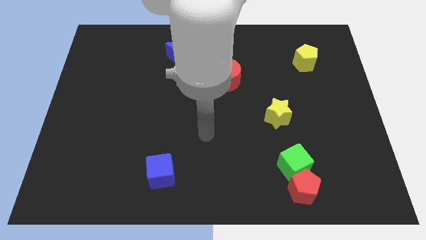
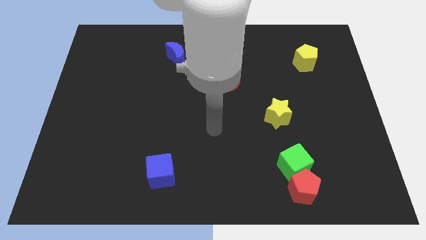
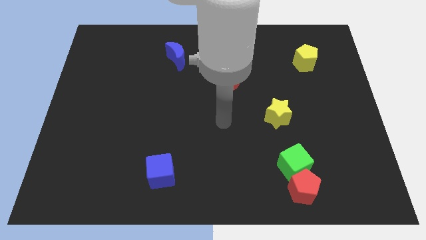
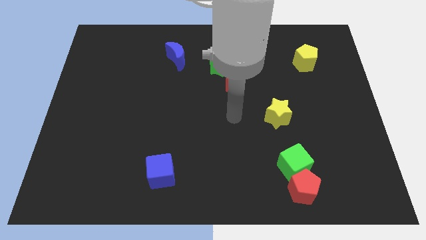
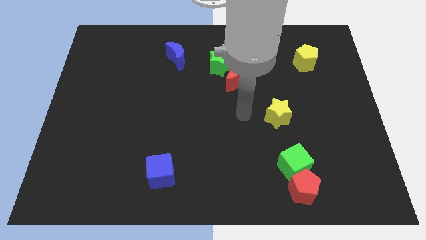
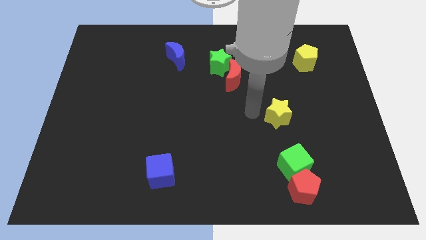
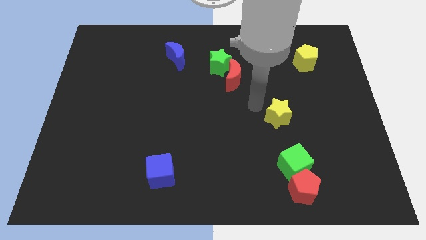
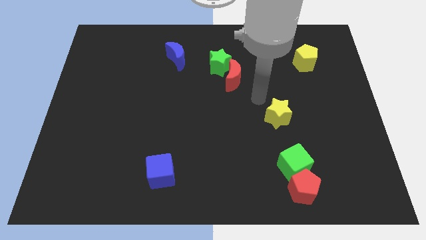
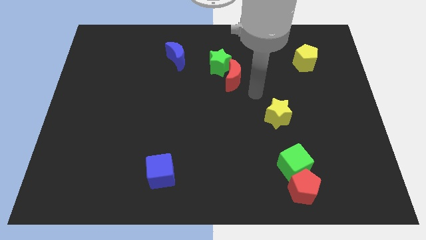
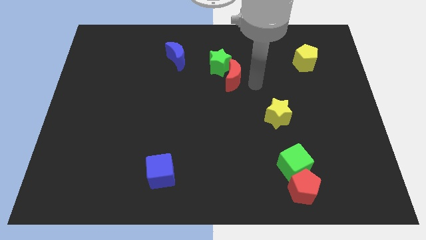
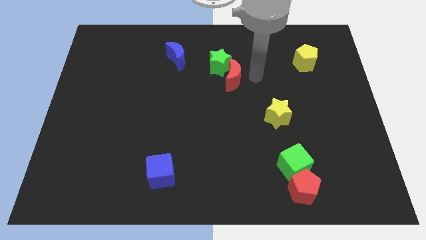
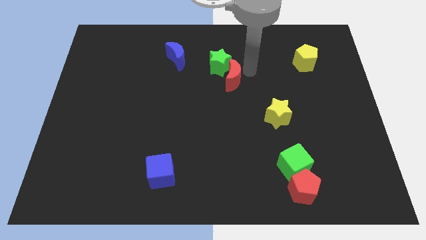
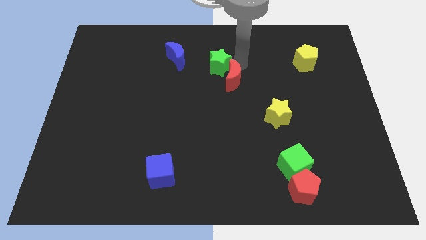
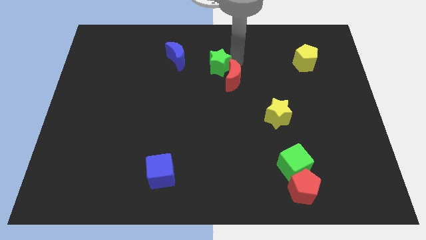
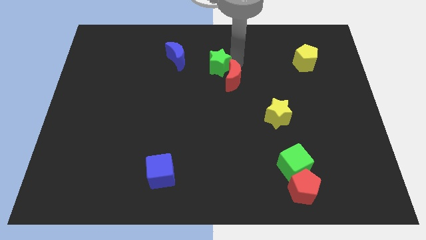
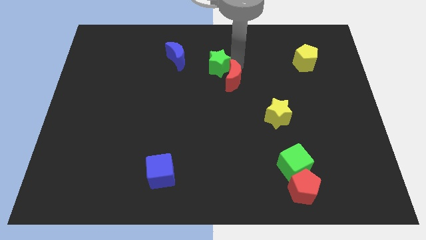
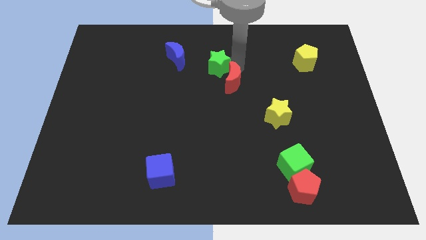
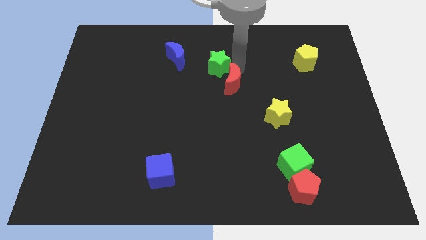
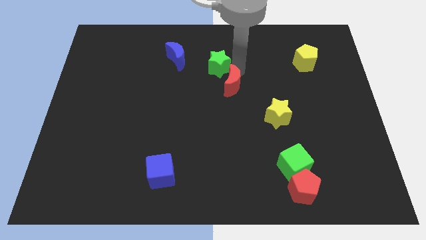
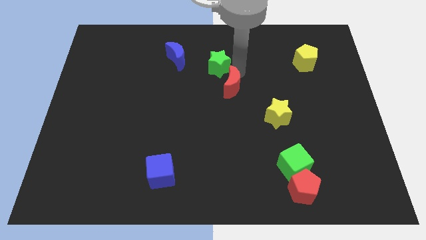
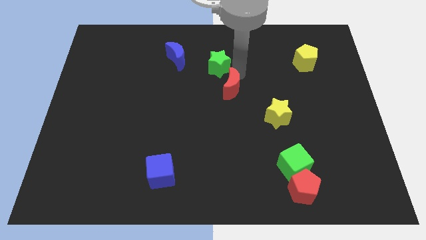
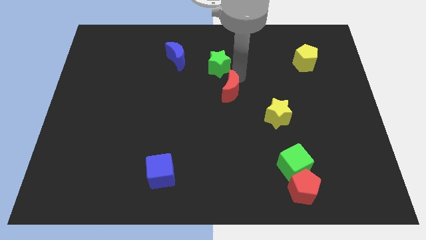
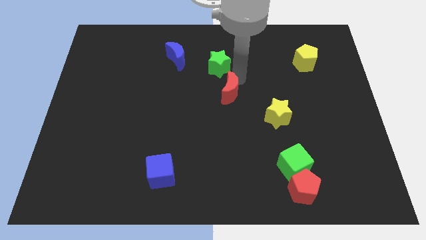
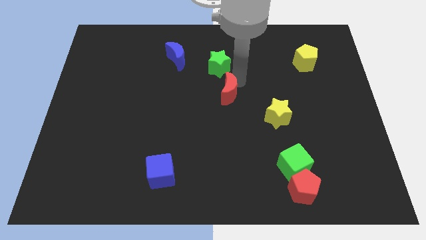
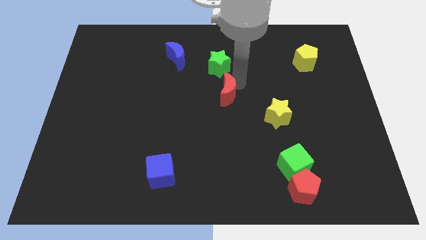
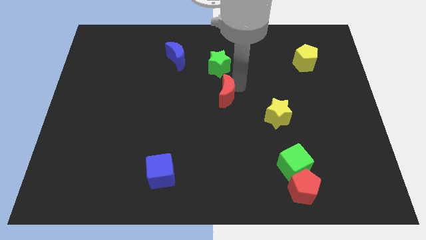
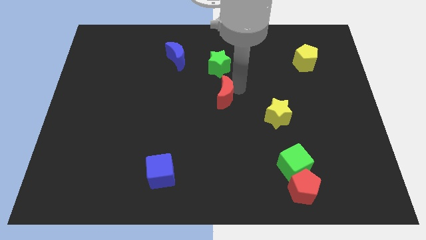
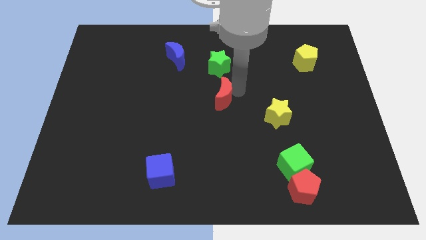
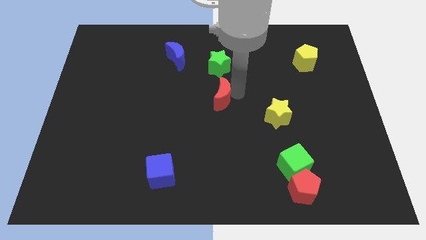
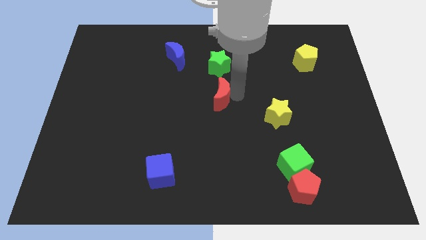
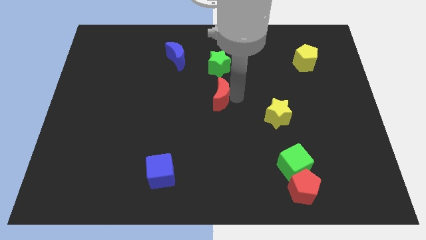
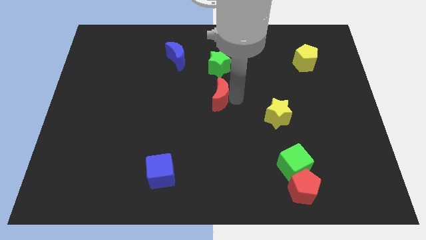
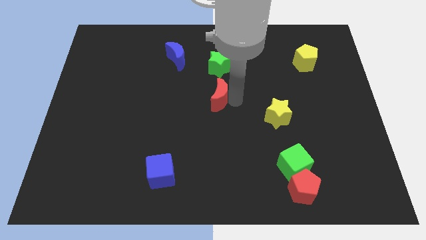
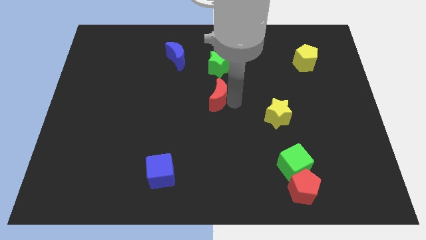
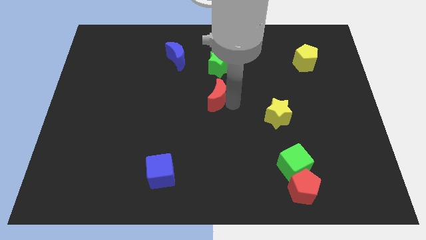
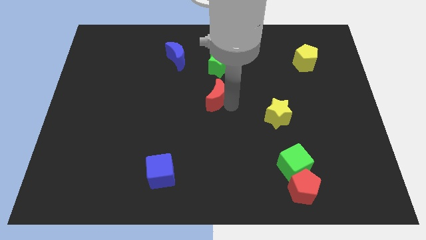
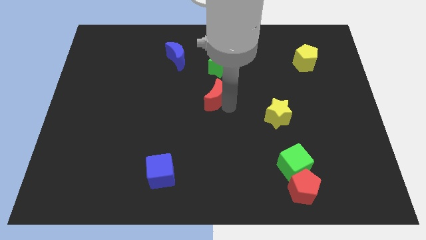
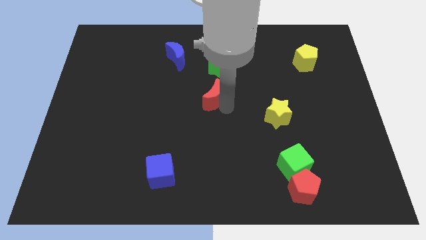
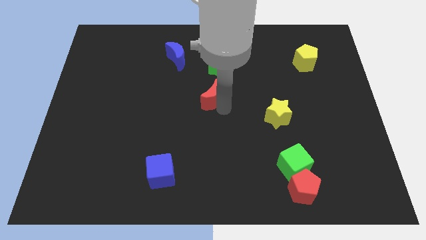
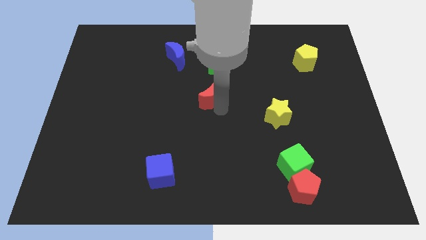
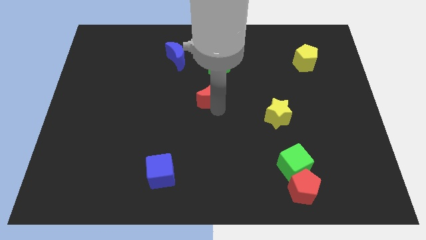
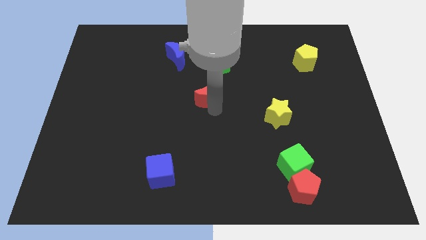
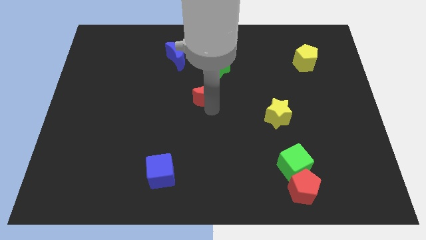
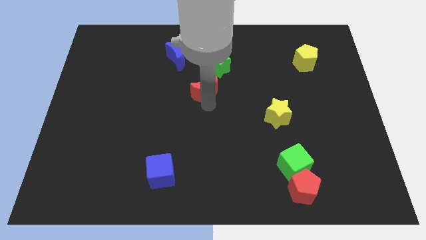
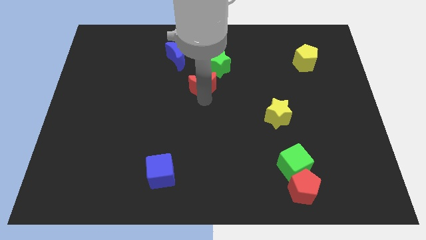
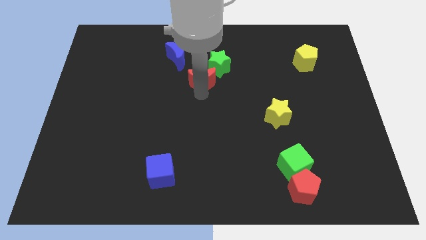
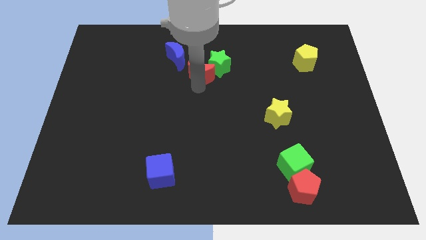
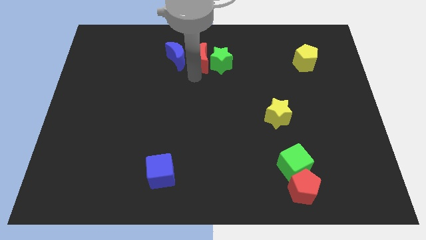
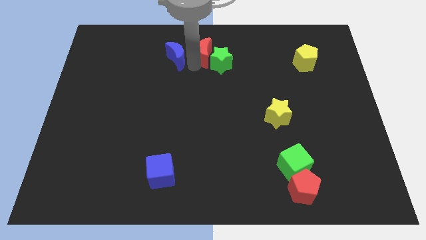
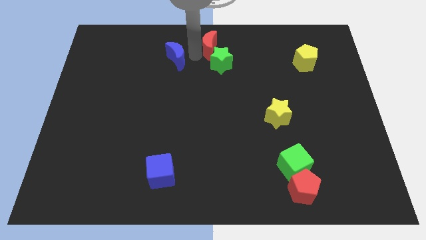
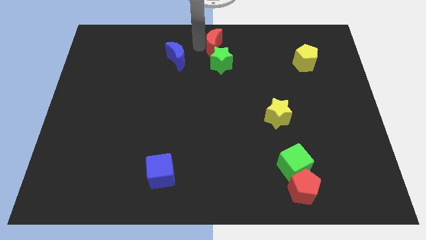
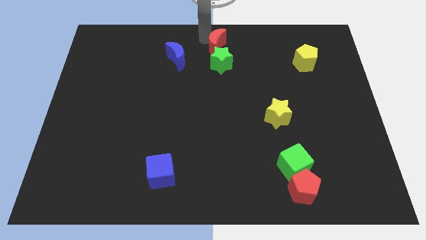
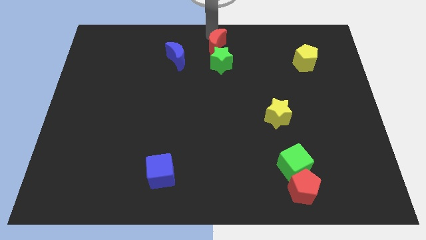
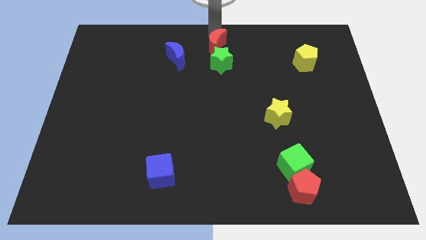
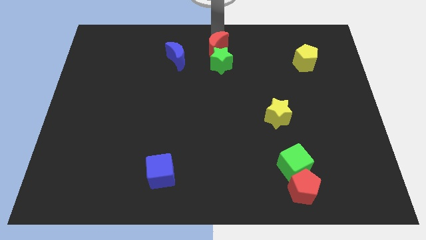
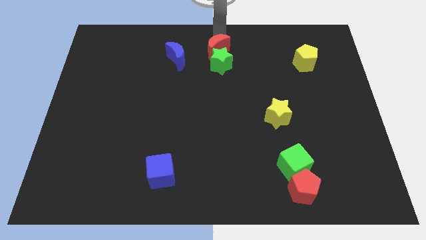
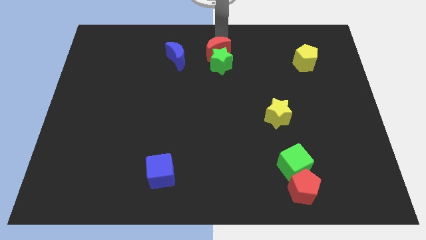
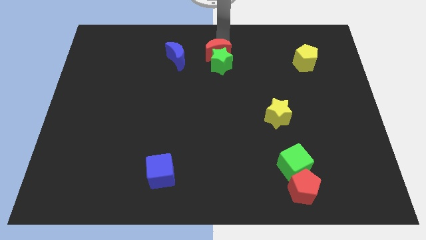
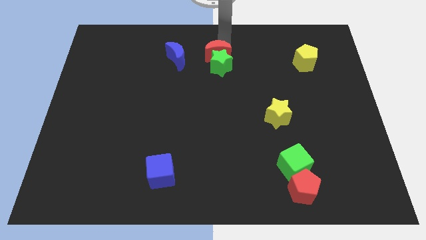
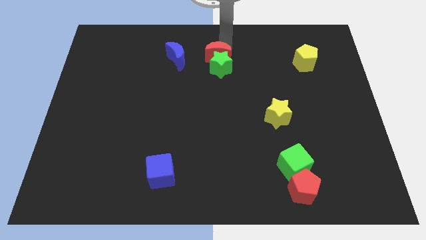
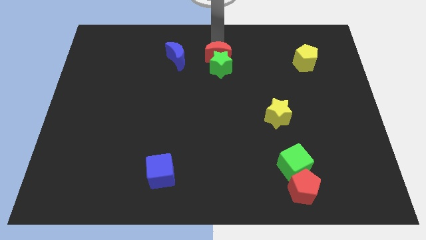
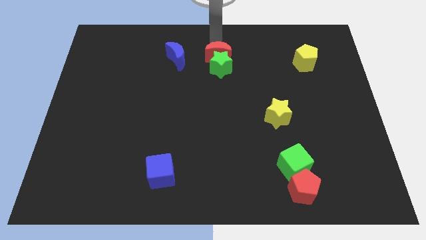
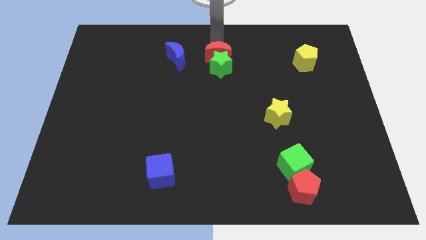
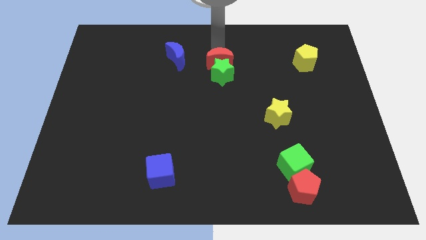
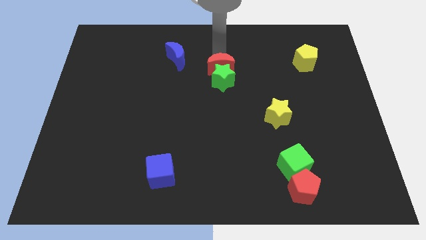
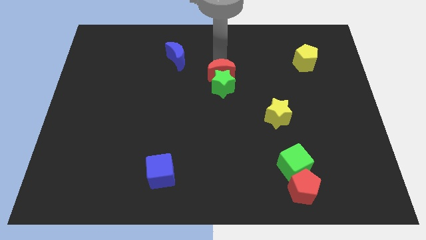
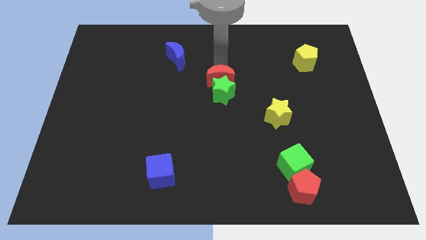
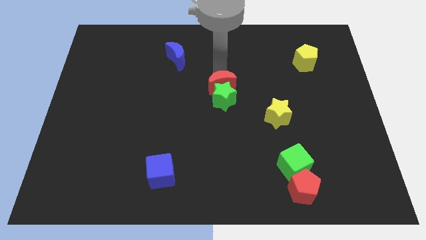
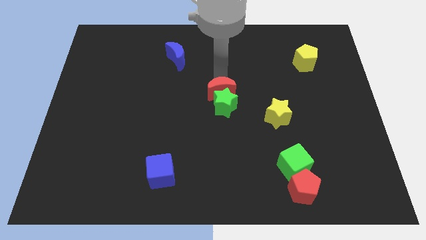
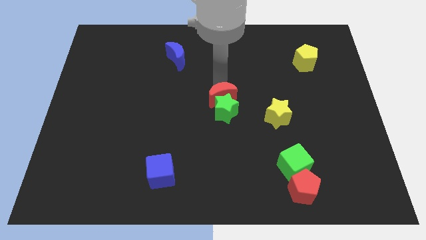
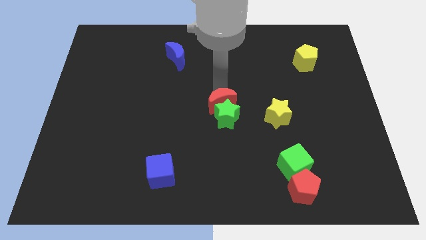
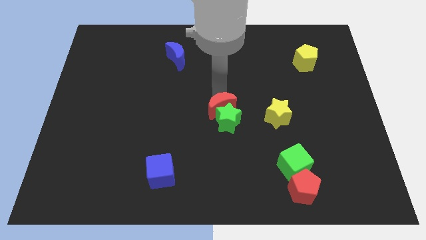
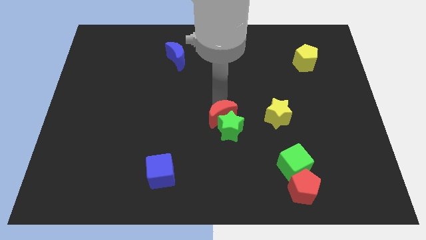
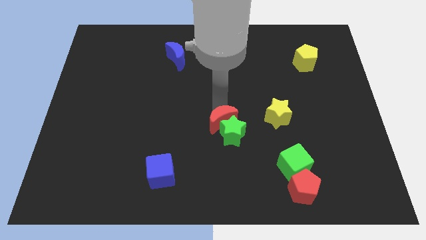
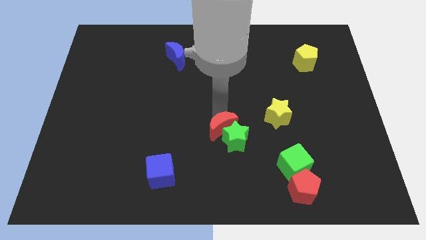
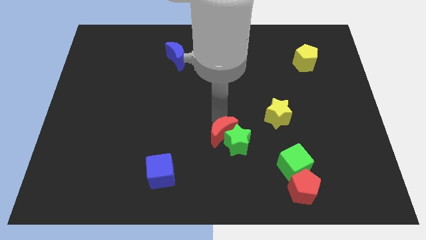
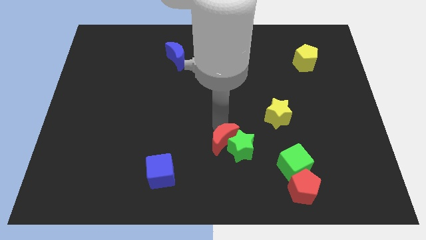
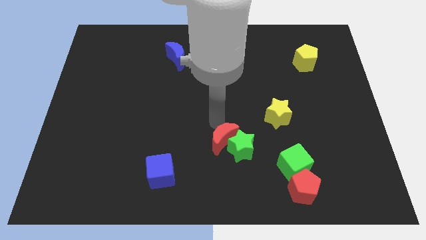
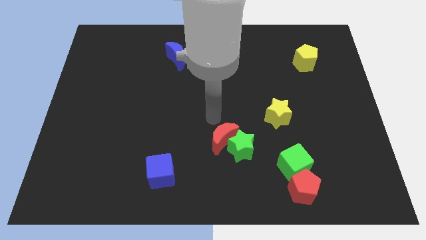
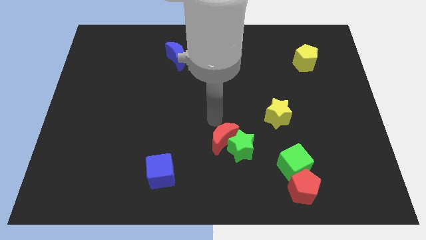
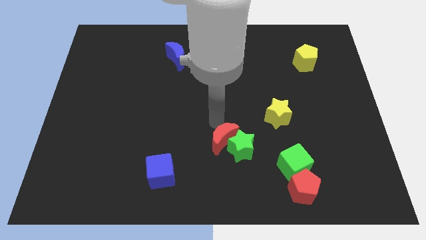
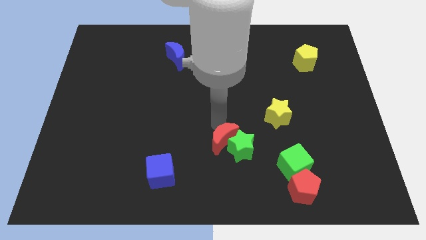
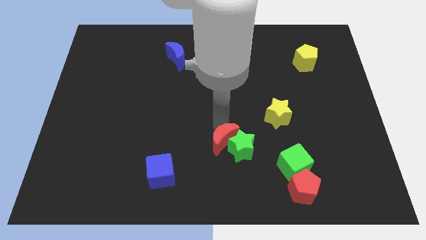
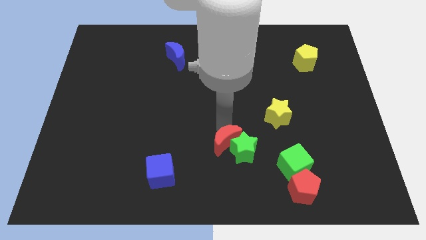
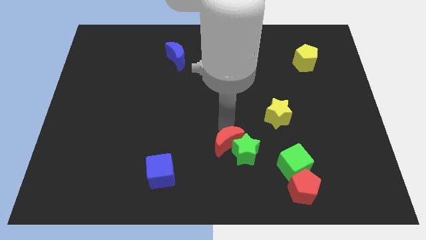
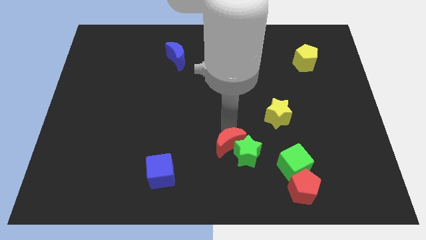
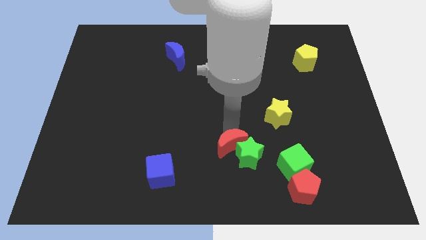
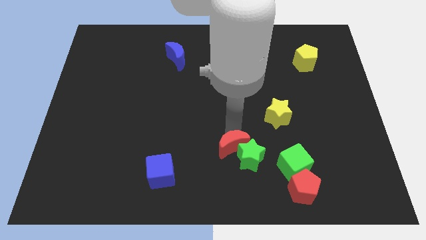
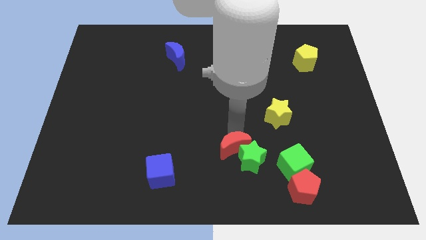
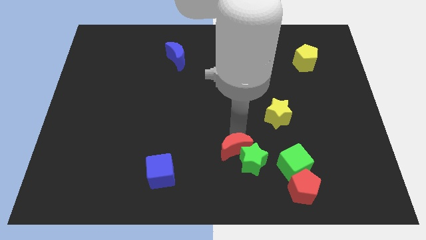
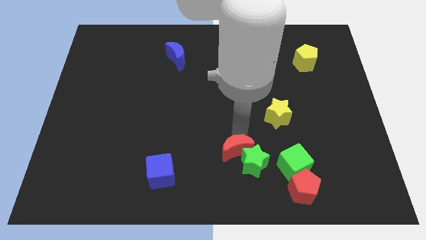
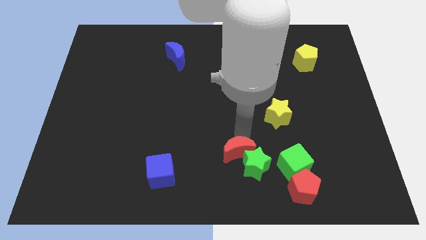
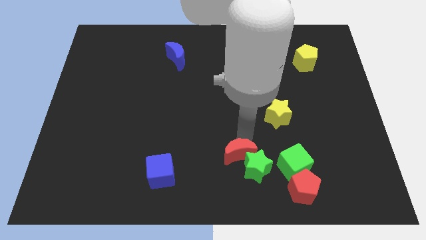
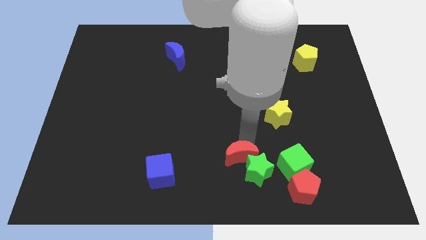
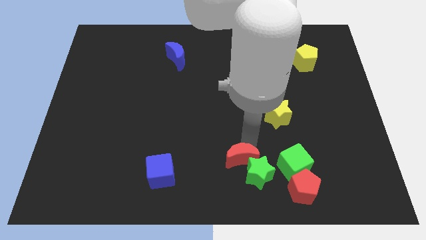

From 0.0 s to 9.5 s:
slide the red moon to the bottom side
